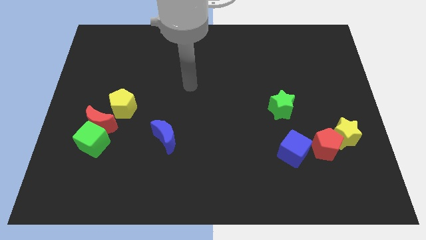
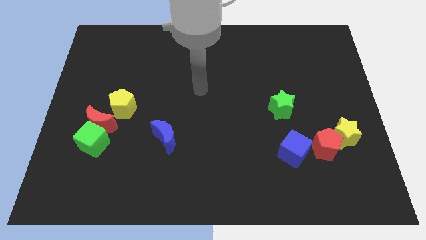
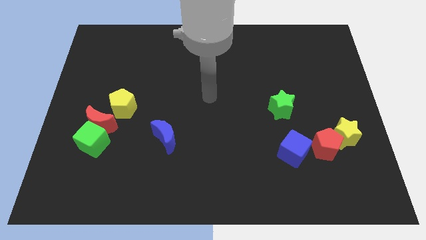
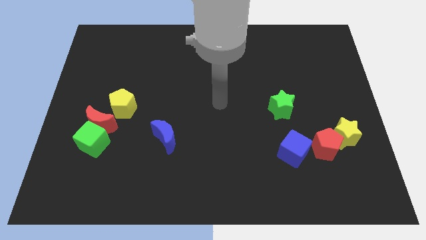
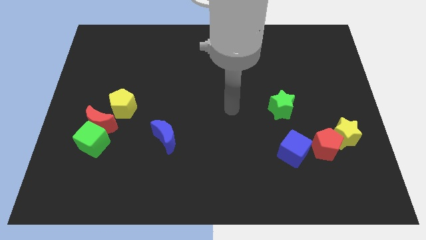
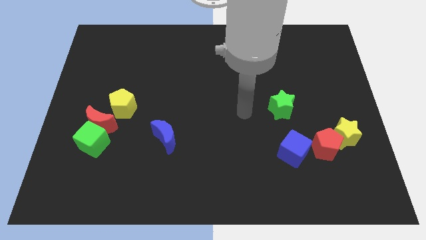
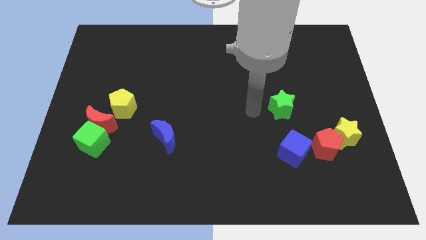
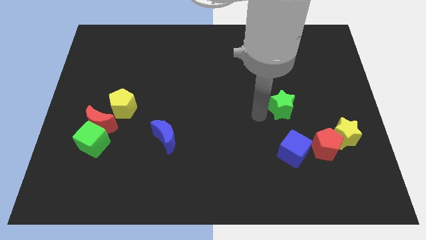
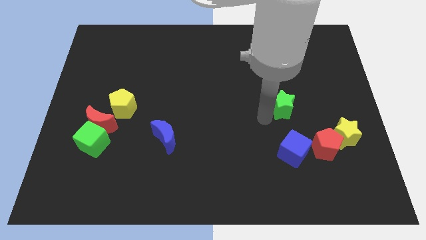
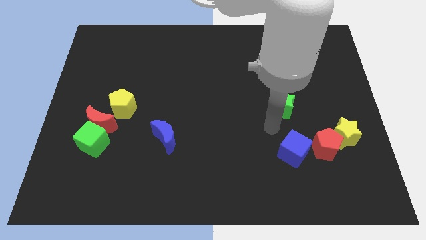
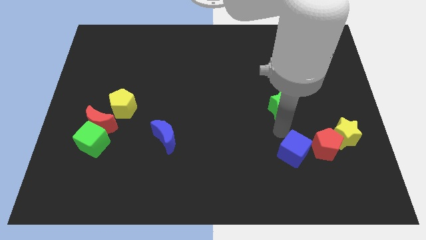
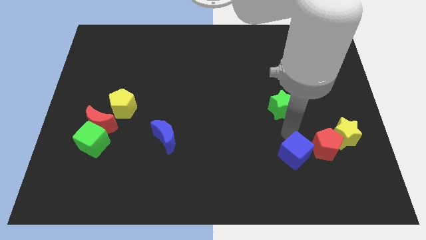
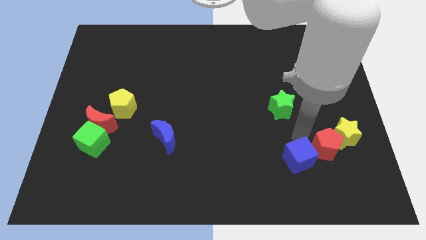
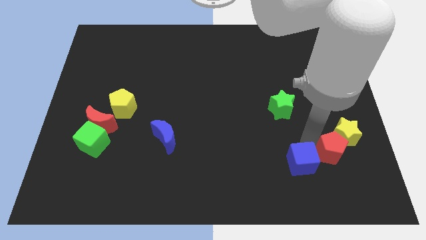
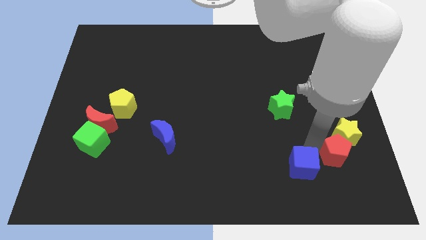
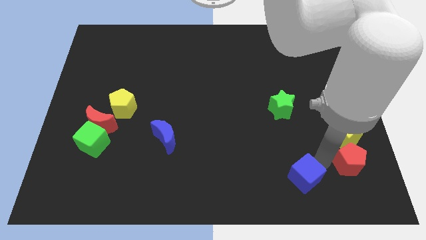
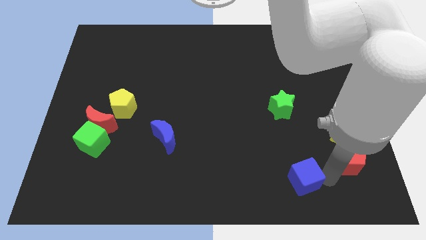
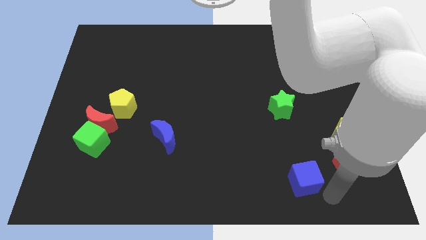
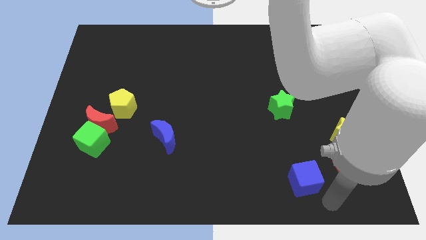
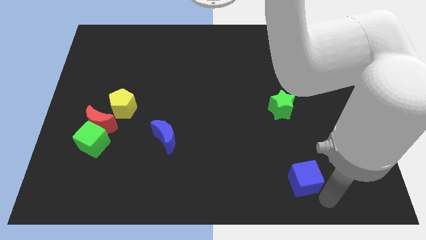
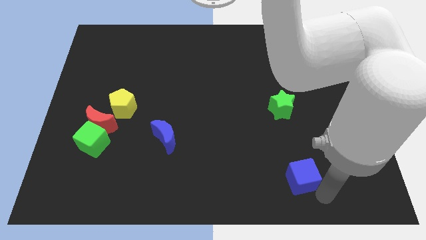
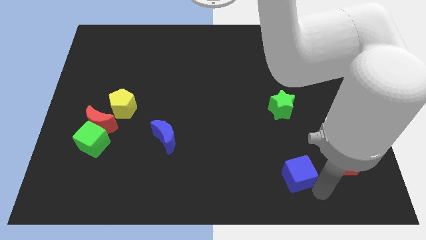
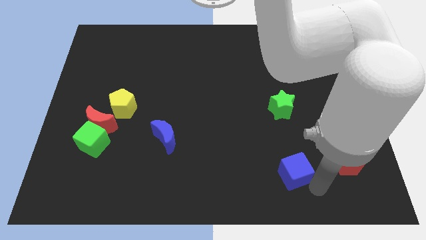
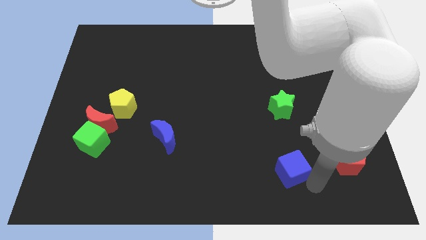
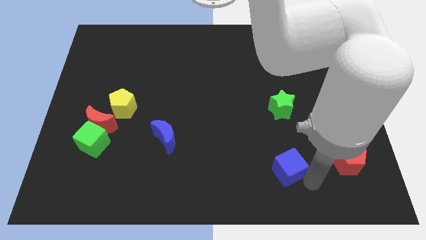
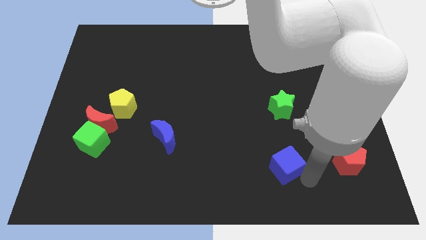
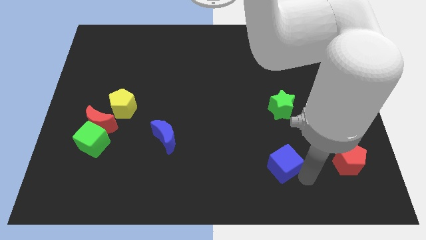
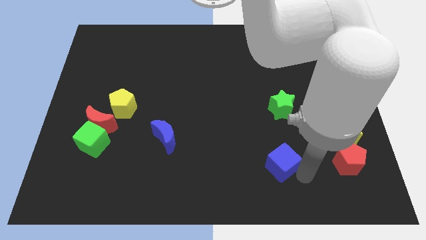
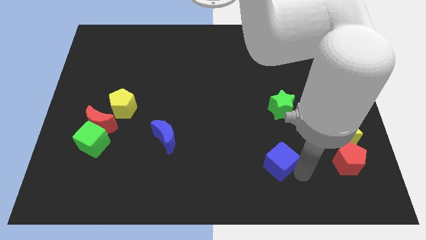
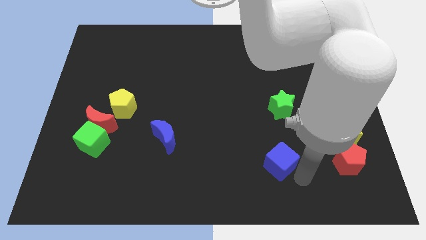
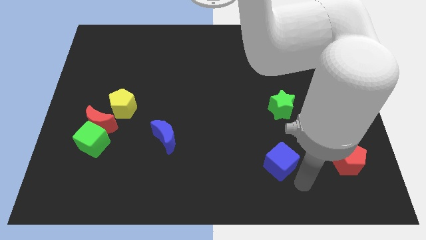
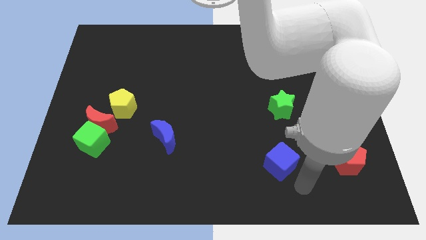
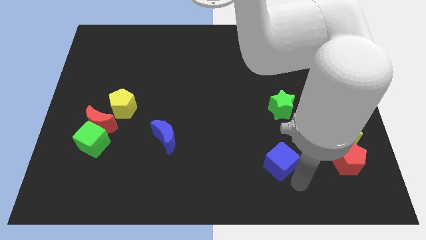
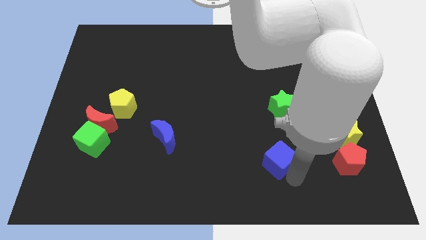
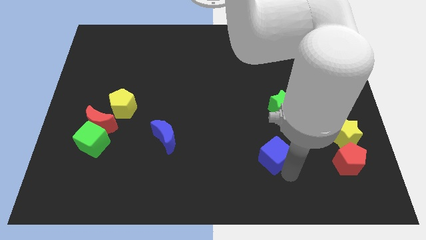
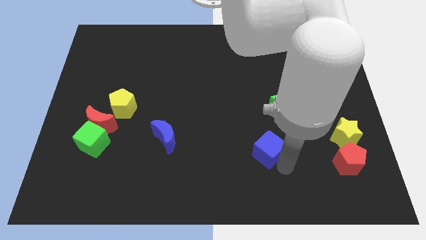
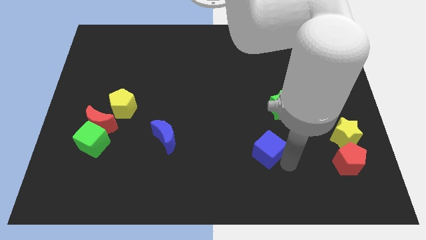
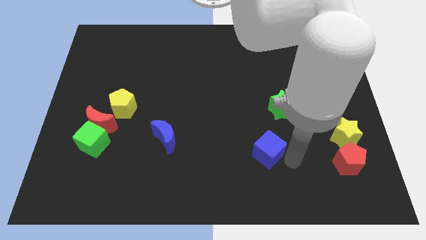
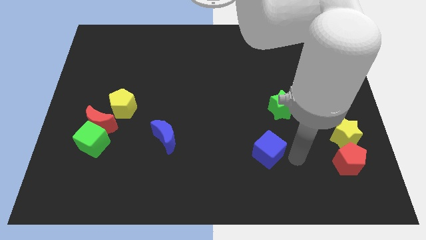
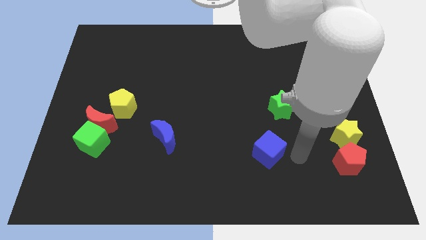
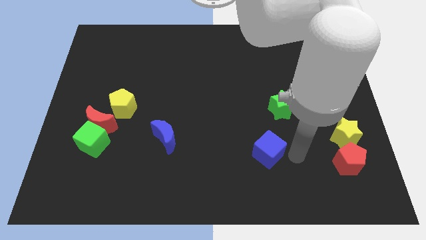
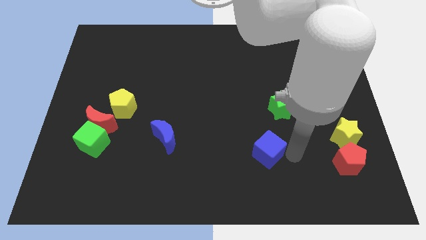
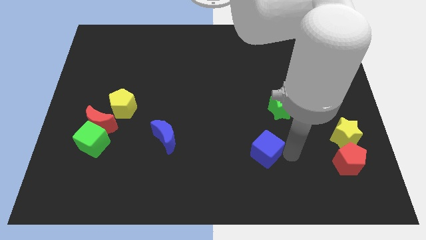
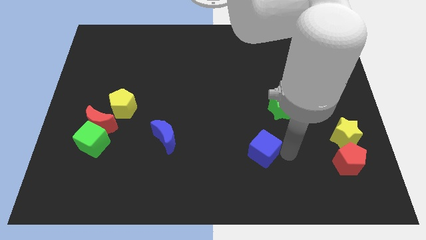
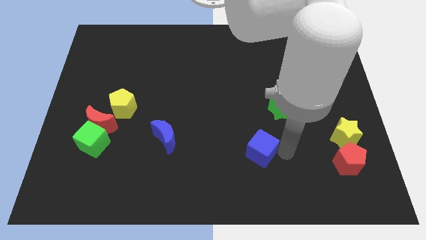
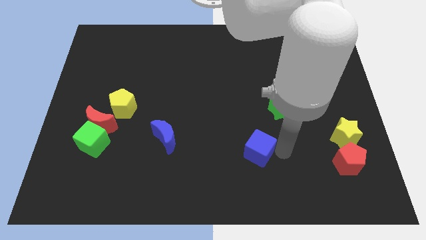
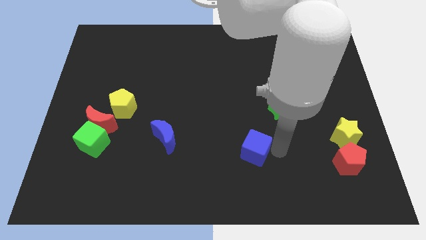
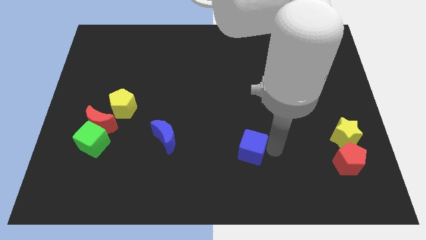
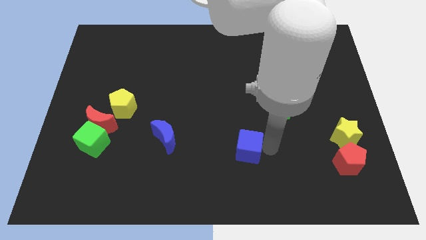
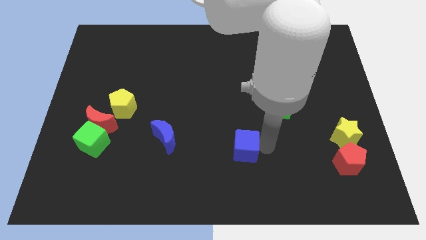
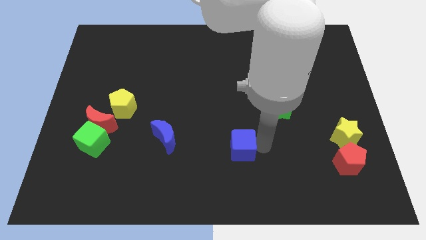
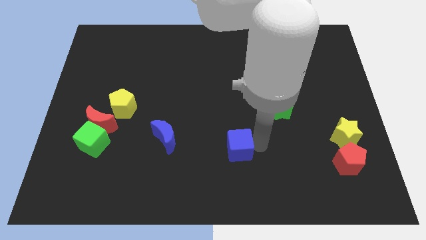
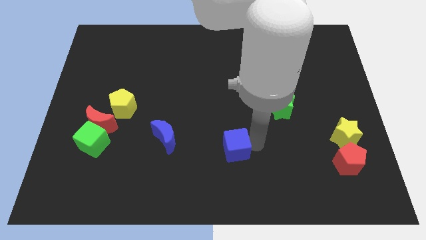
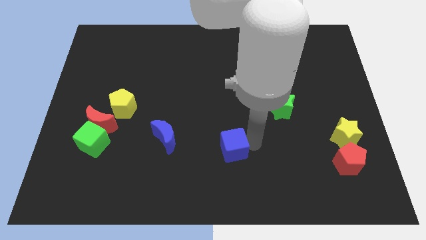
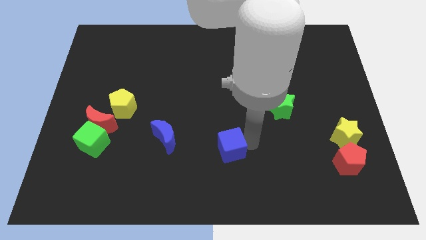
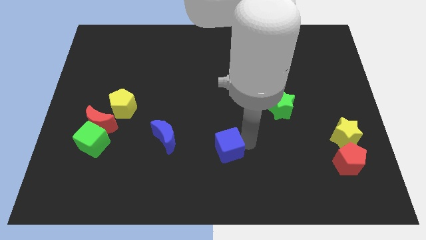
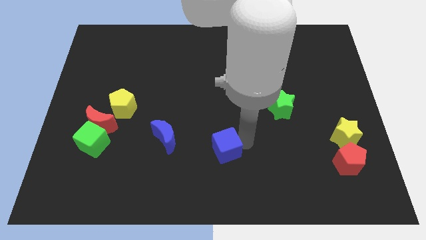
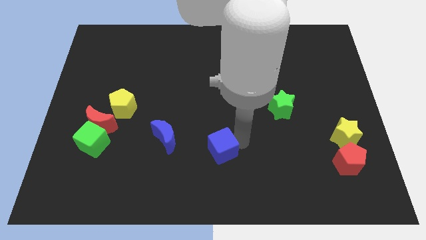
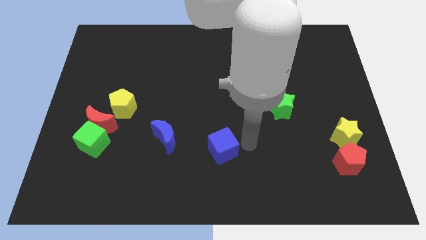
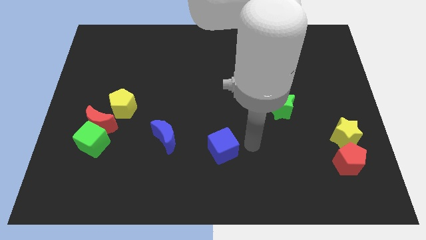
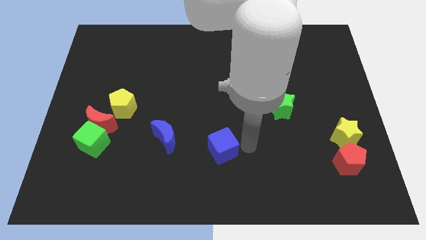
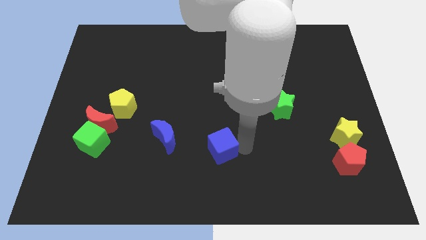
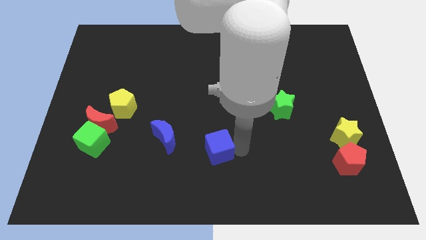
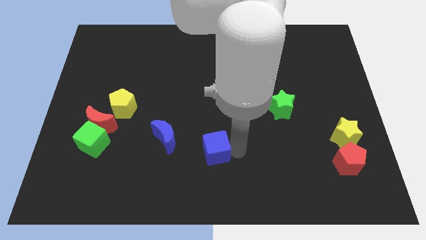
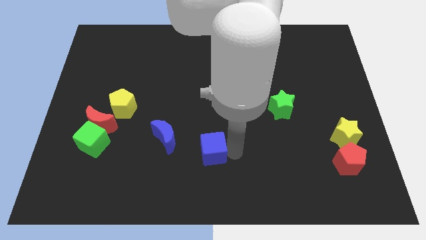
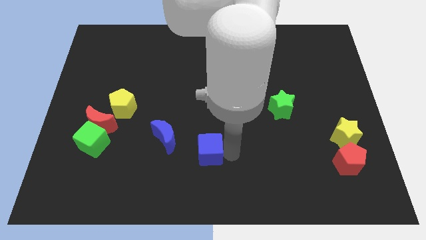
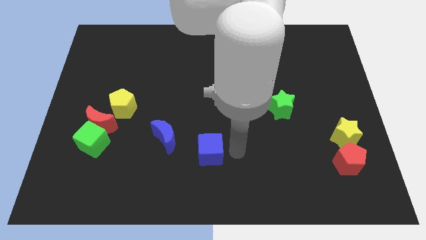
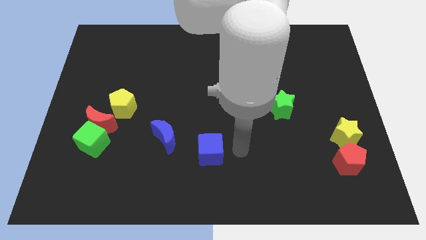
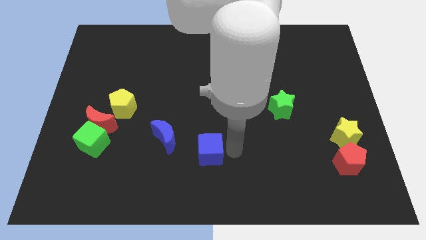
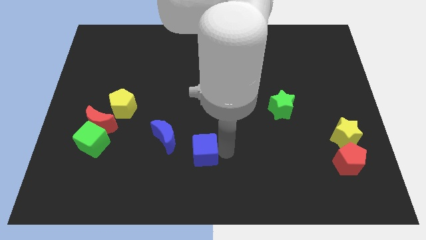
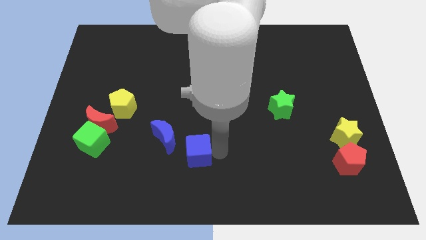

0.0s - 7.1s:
slide the blue cube left

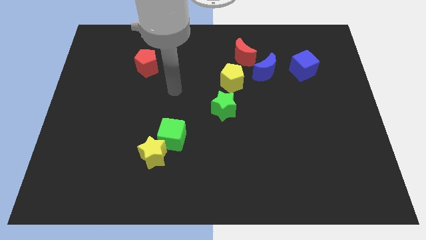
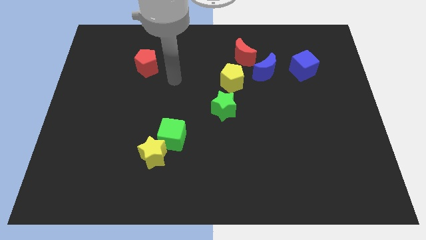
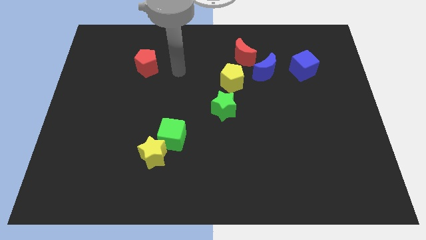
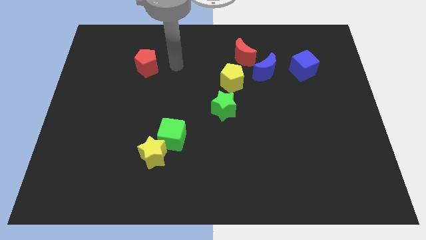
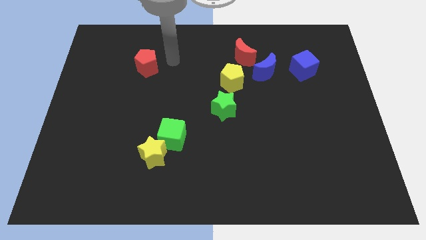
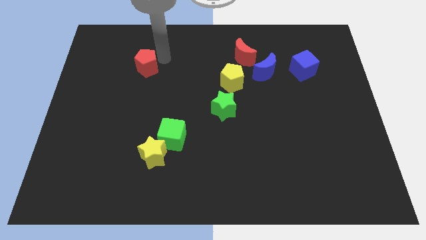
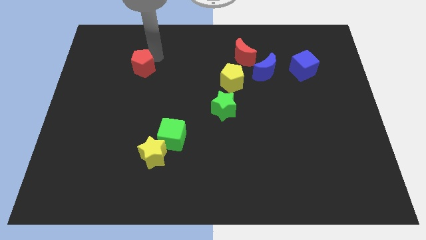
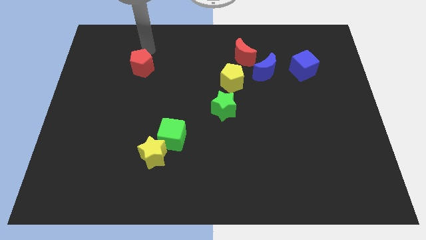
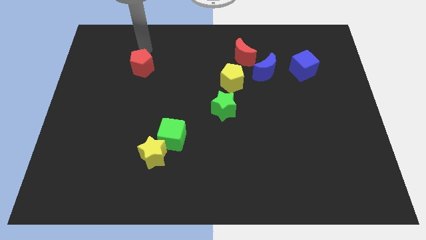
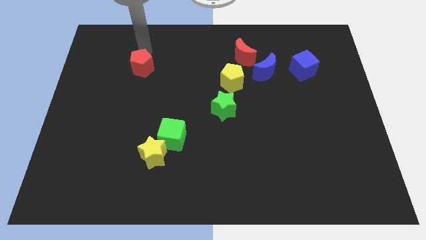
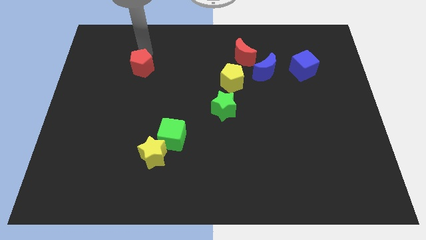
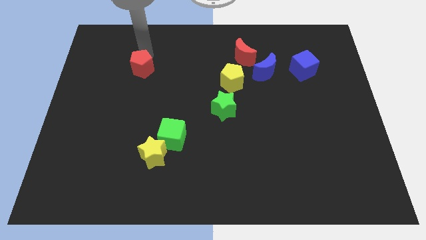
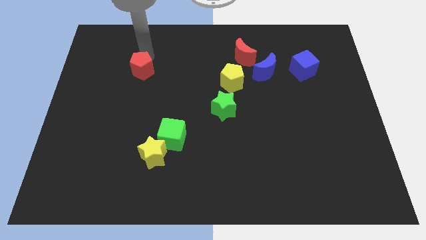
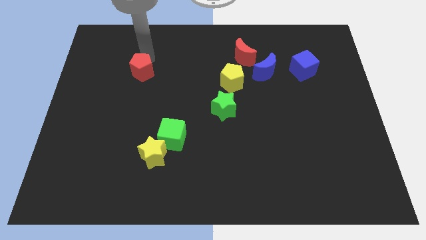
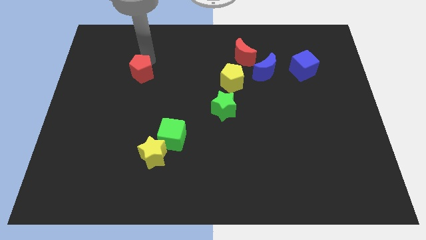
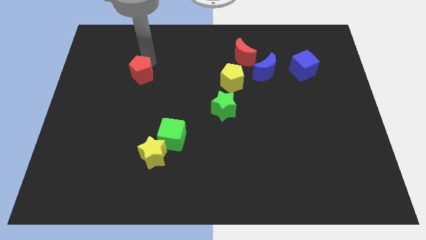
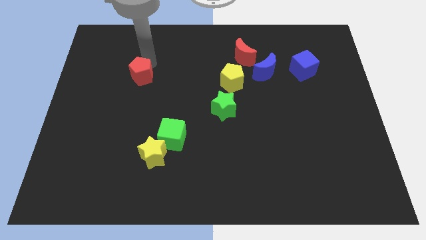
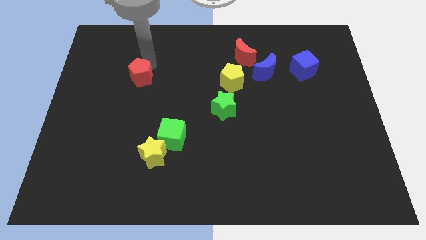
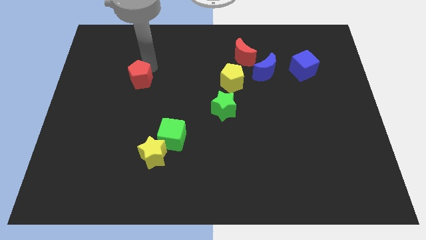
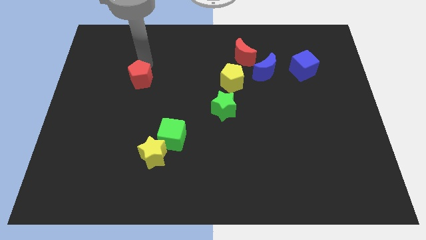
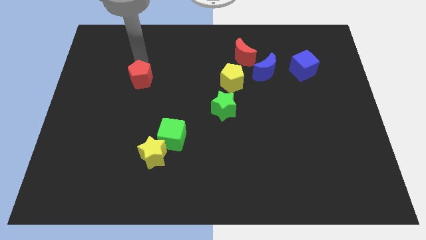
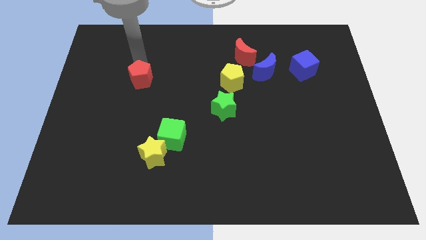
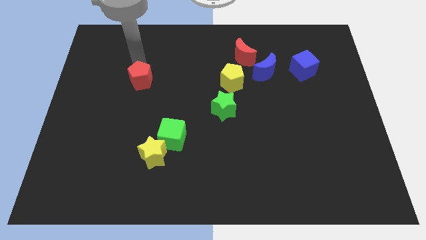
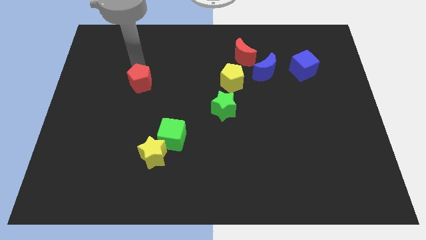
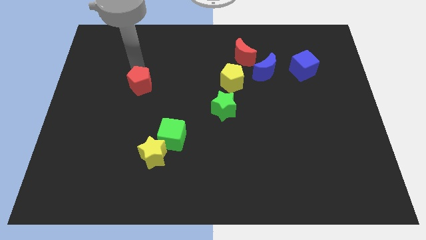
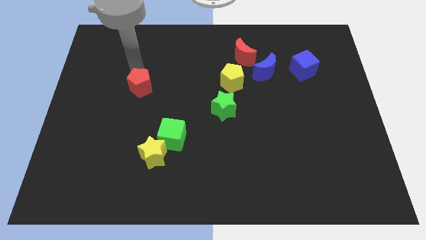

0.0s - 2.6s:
slightly slide the red pentagon down
